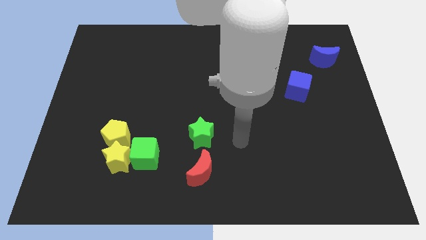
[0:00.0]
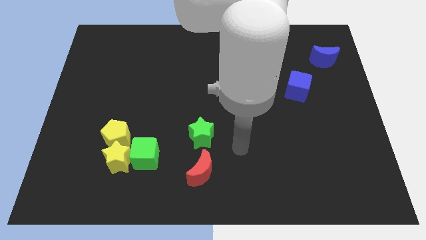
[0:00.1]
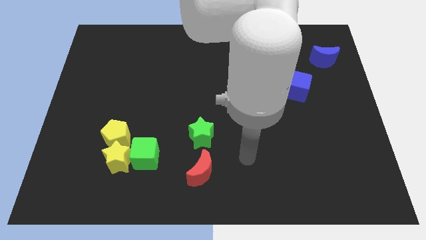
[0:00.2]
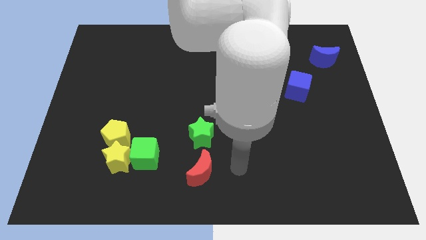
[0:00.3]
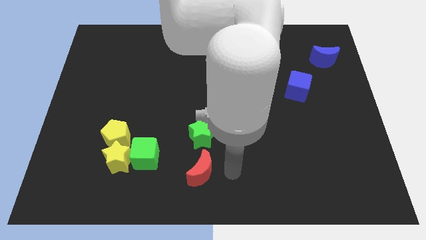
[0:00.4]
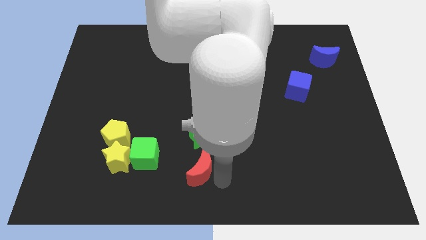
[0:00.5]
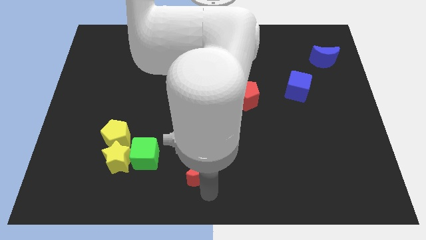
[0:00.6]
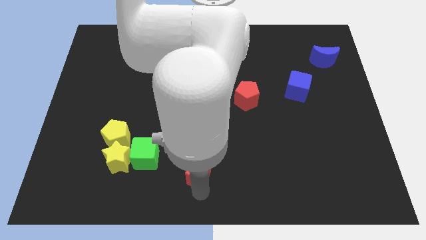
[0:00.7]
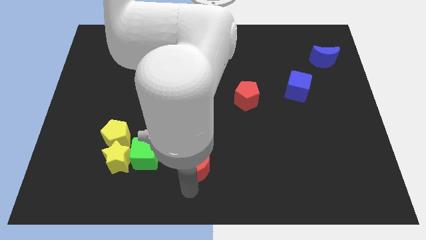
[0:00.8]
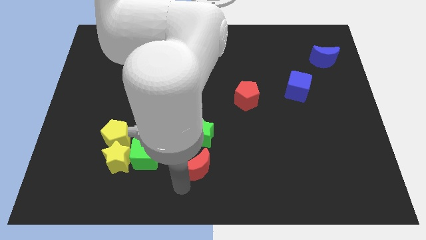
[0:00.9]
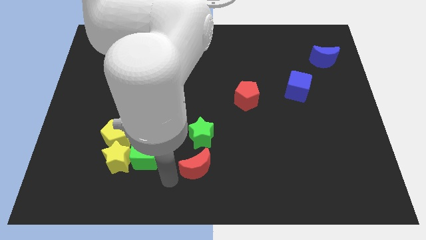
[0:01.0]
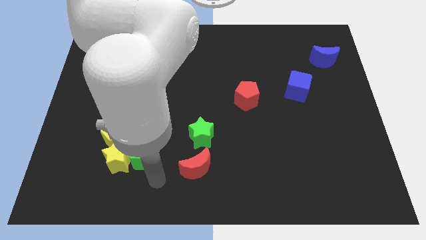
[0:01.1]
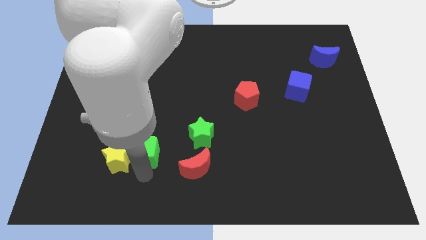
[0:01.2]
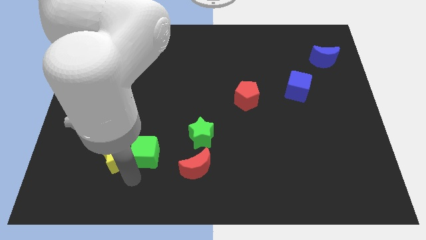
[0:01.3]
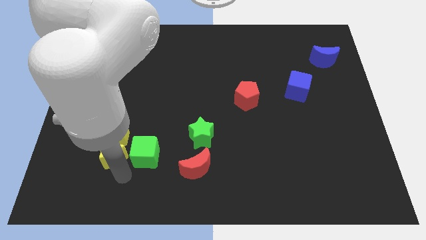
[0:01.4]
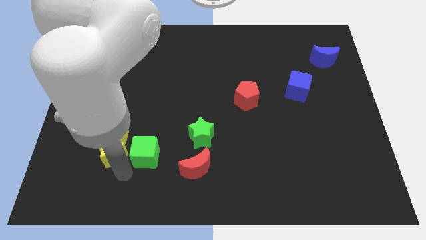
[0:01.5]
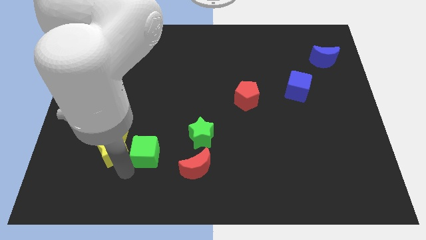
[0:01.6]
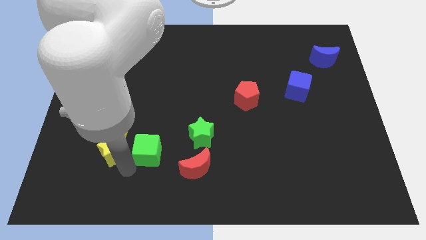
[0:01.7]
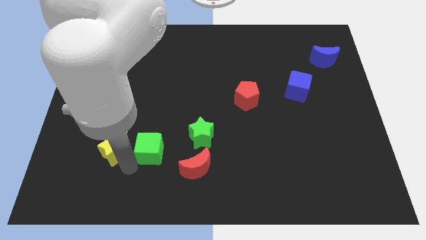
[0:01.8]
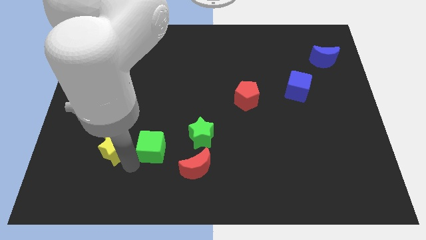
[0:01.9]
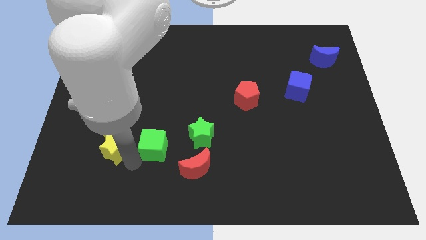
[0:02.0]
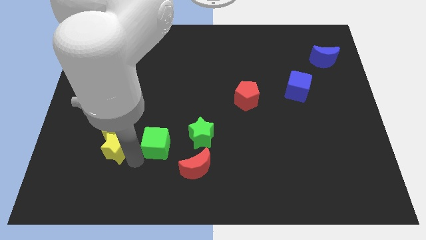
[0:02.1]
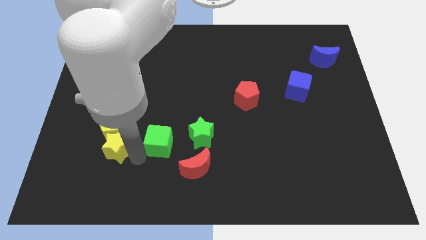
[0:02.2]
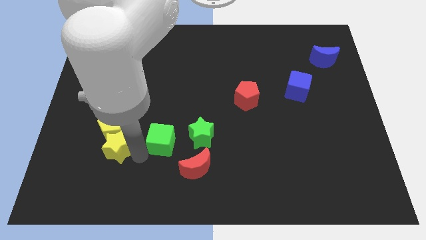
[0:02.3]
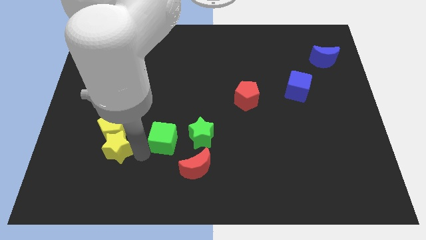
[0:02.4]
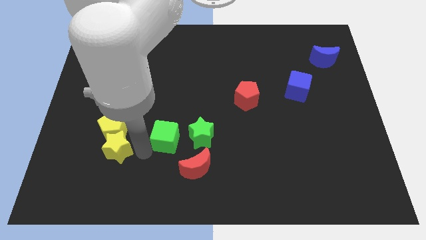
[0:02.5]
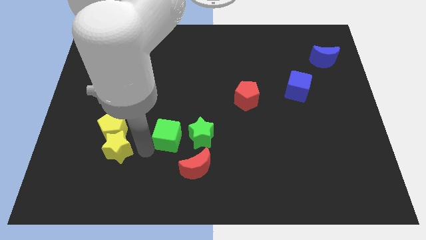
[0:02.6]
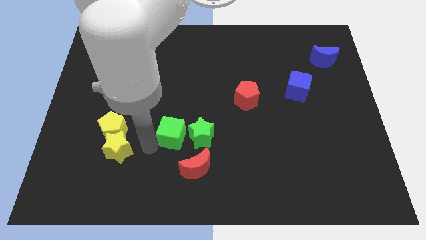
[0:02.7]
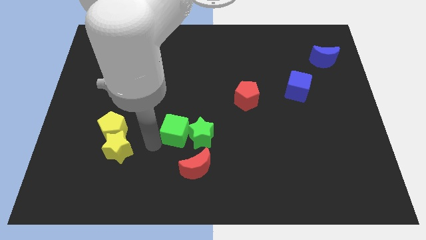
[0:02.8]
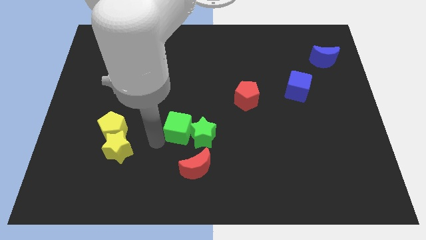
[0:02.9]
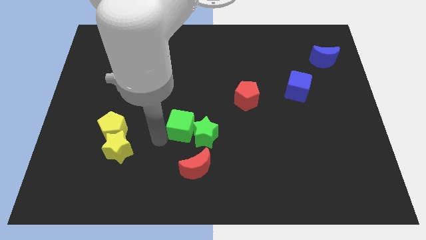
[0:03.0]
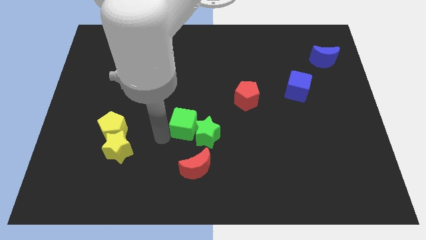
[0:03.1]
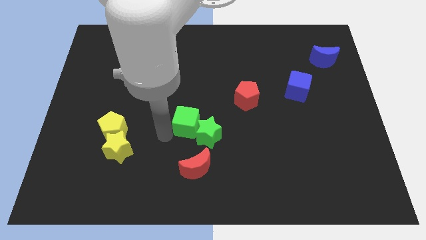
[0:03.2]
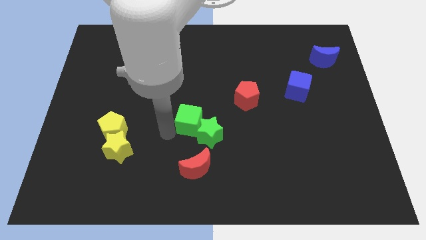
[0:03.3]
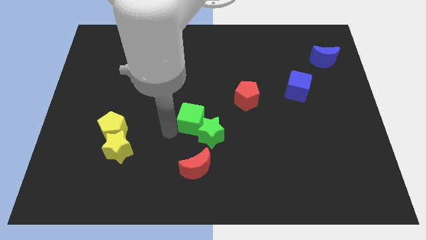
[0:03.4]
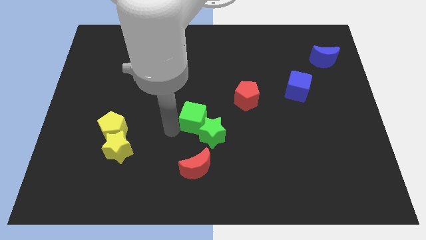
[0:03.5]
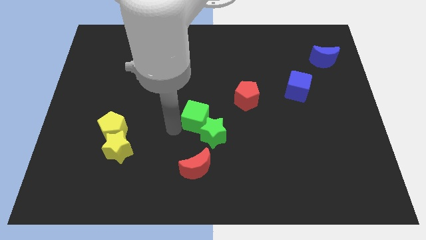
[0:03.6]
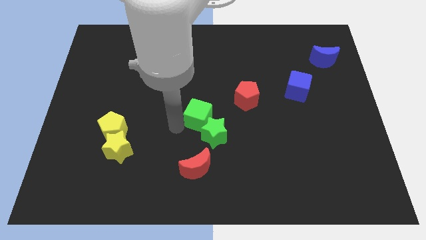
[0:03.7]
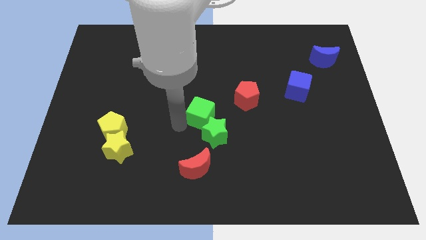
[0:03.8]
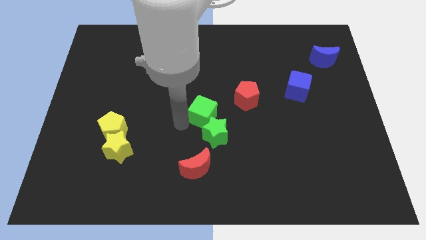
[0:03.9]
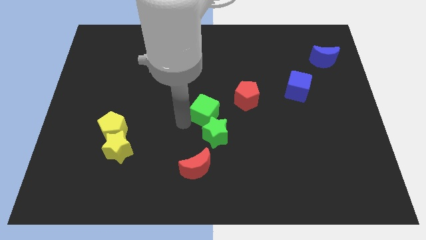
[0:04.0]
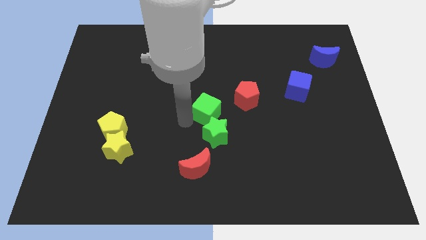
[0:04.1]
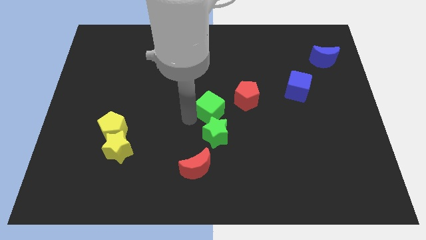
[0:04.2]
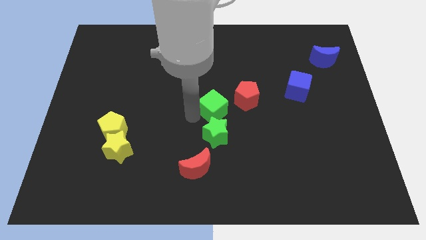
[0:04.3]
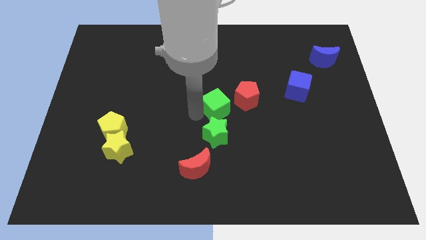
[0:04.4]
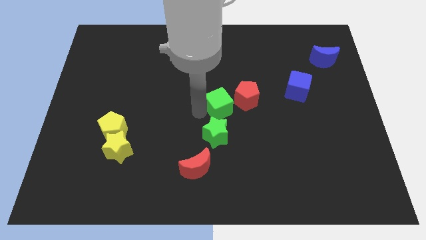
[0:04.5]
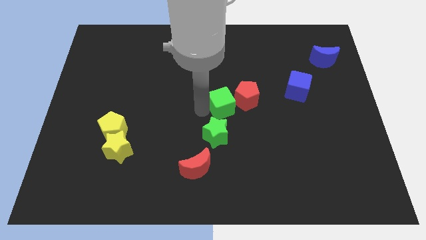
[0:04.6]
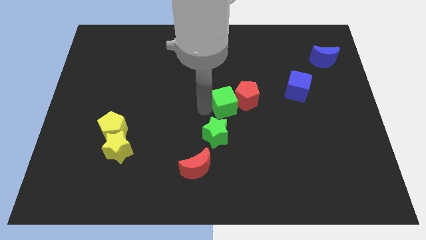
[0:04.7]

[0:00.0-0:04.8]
slide the green cube towards the red pentagon

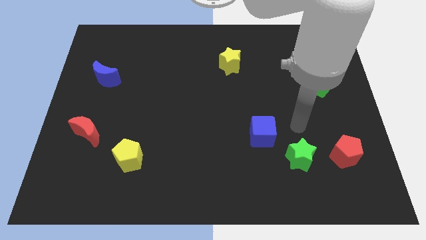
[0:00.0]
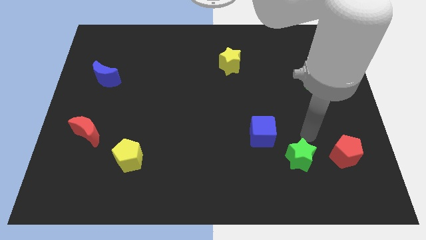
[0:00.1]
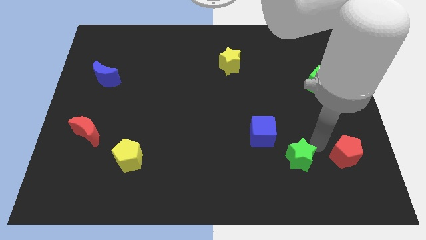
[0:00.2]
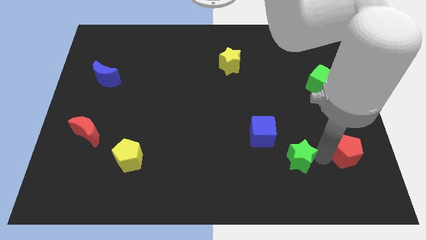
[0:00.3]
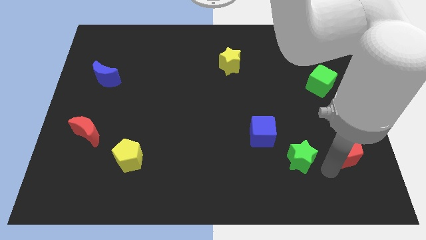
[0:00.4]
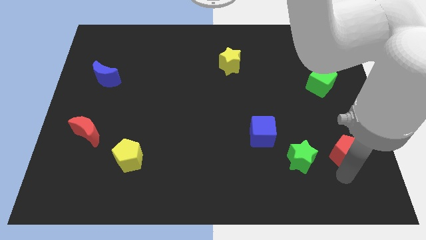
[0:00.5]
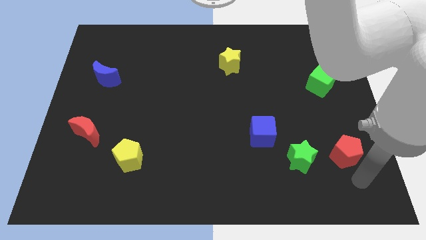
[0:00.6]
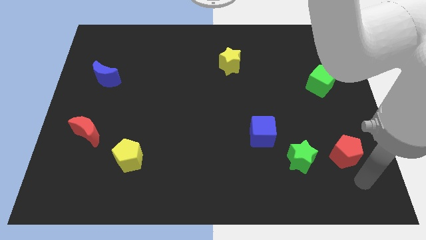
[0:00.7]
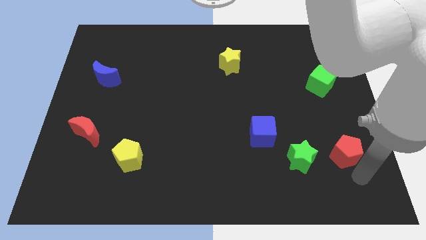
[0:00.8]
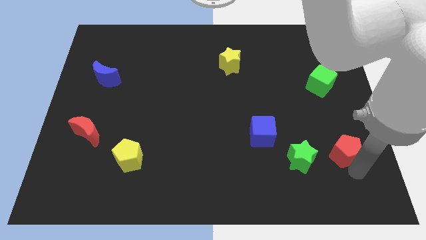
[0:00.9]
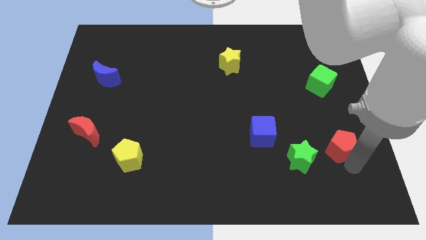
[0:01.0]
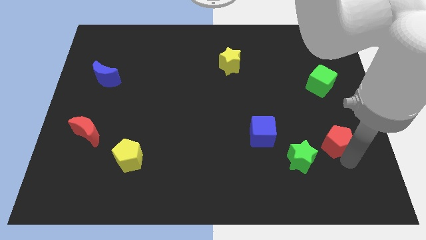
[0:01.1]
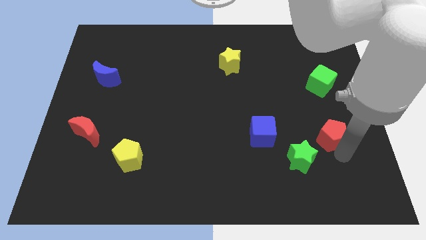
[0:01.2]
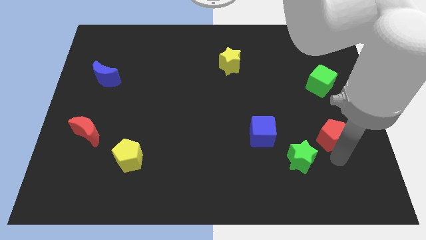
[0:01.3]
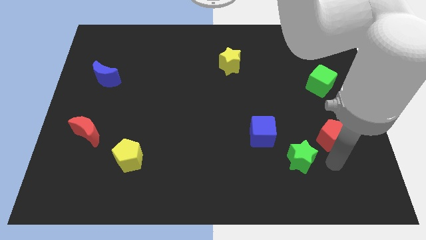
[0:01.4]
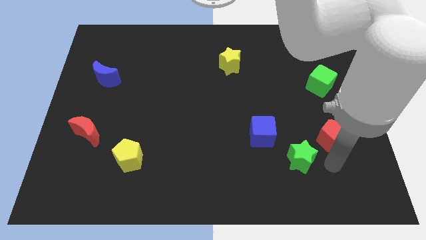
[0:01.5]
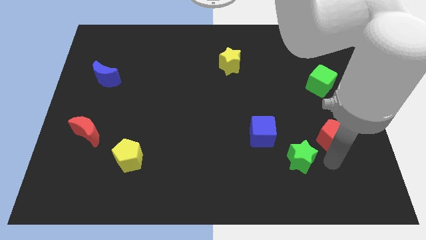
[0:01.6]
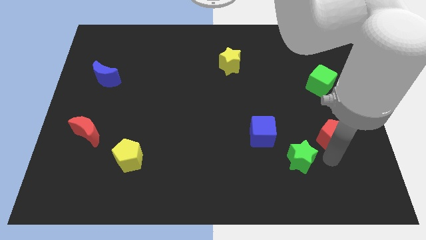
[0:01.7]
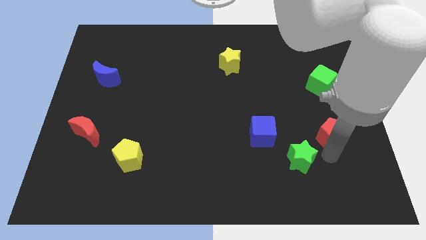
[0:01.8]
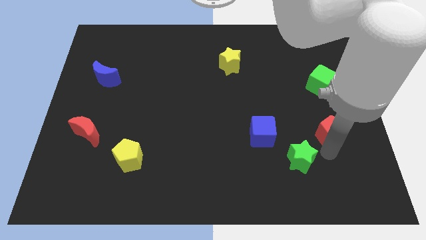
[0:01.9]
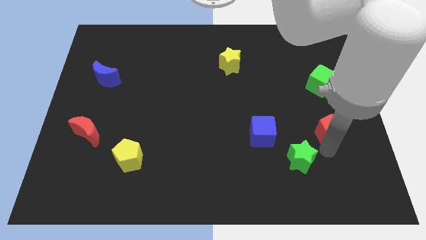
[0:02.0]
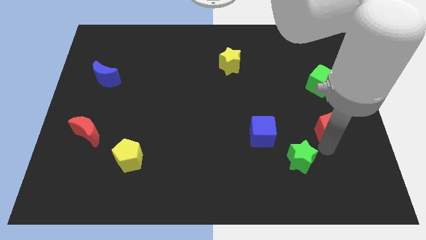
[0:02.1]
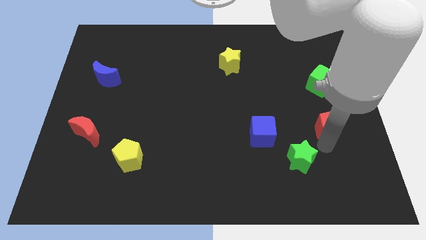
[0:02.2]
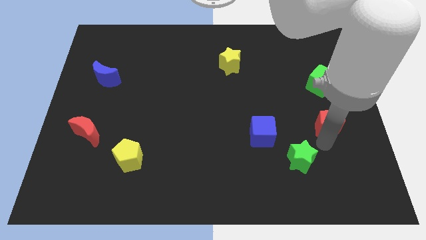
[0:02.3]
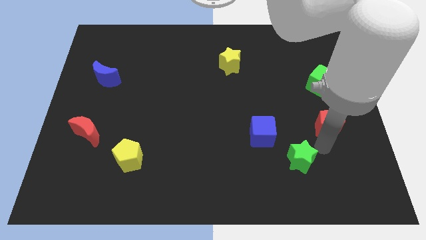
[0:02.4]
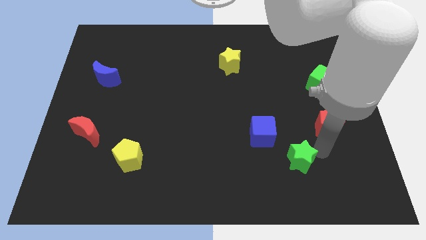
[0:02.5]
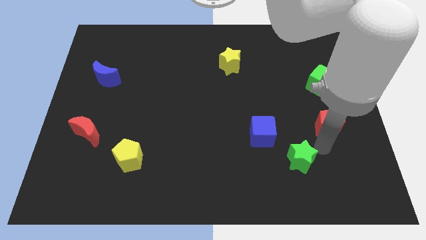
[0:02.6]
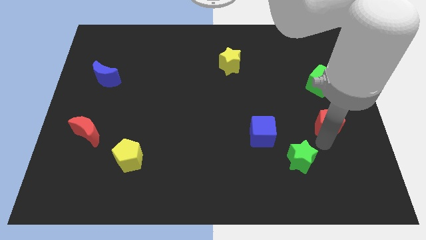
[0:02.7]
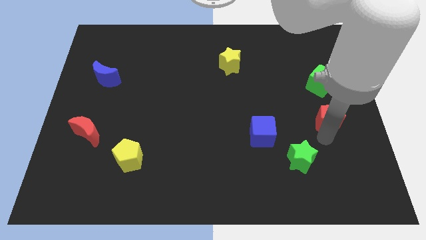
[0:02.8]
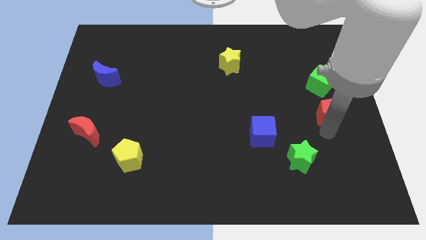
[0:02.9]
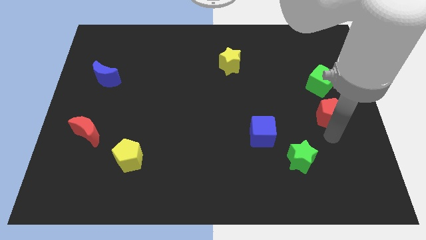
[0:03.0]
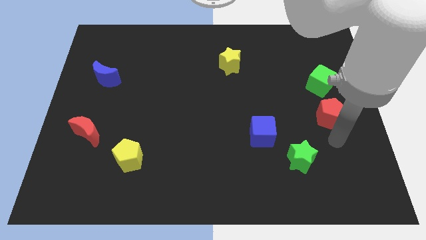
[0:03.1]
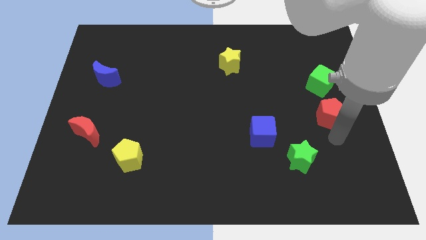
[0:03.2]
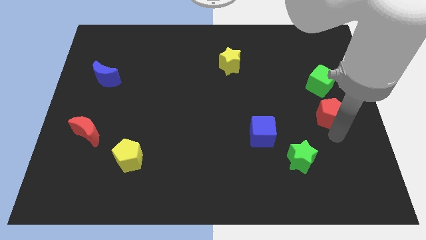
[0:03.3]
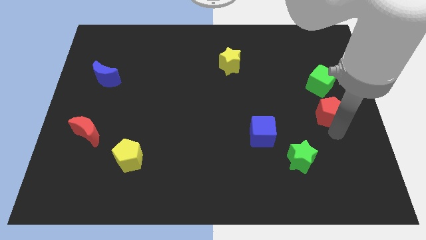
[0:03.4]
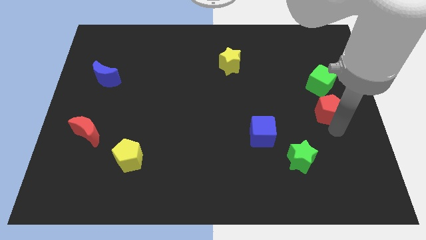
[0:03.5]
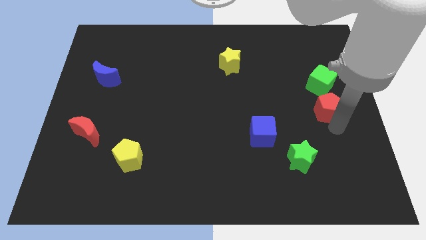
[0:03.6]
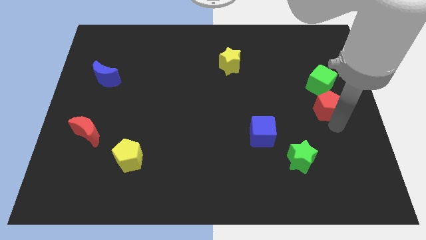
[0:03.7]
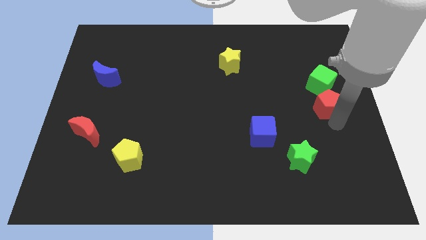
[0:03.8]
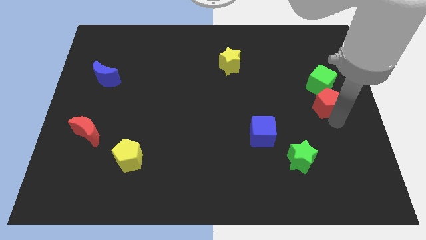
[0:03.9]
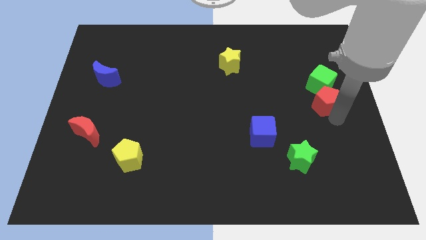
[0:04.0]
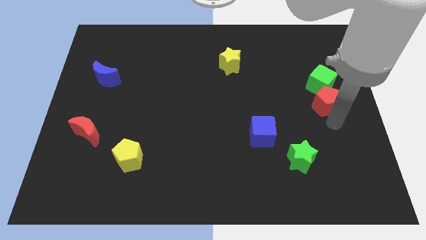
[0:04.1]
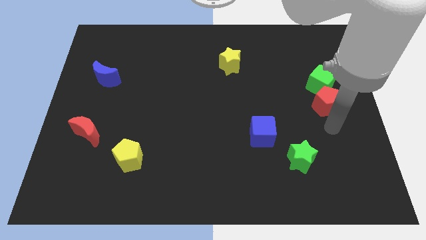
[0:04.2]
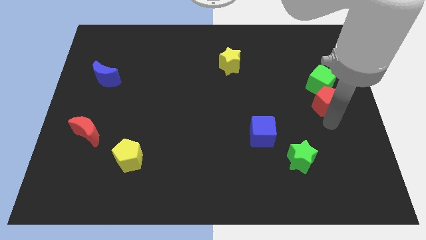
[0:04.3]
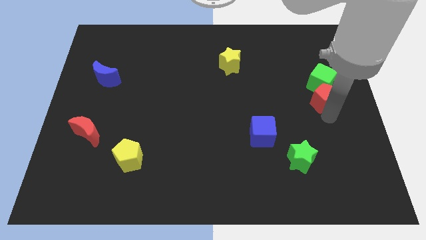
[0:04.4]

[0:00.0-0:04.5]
push the red pentagon to the green cube
